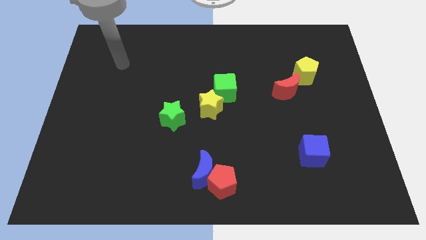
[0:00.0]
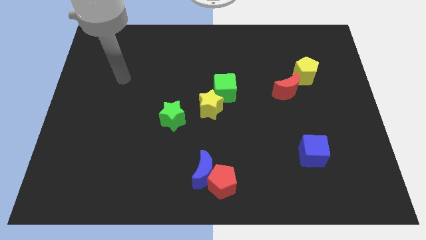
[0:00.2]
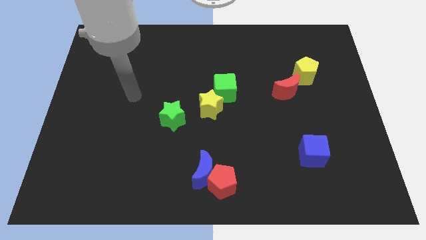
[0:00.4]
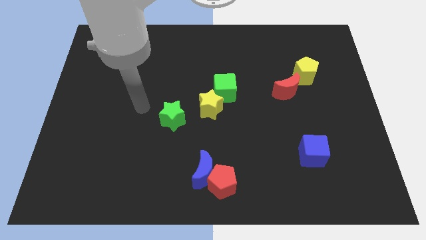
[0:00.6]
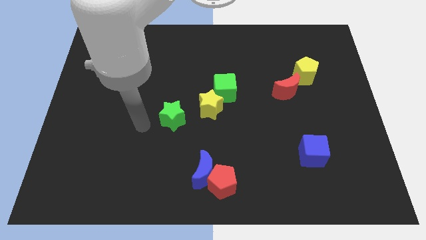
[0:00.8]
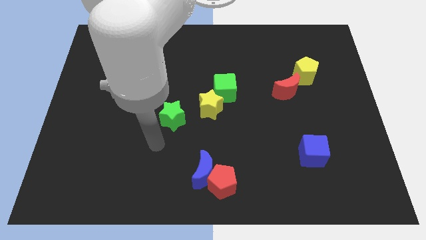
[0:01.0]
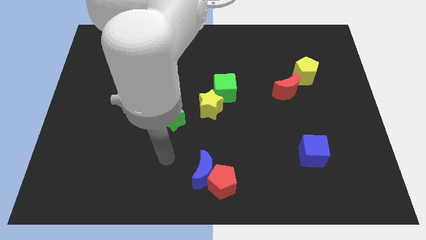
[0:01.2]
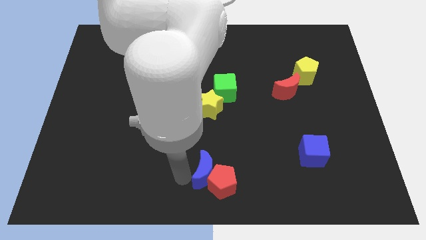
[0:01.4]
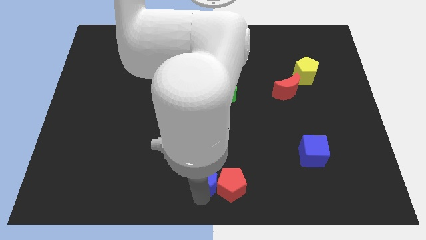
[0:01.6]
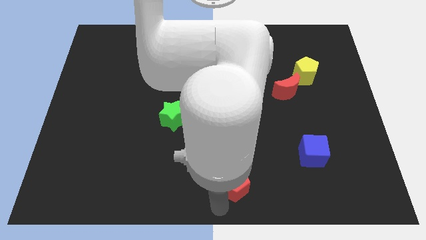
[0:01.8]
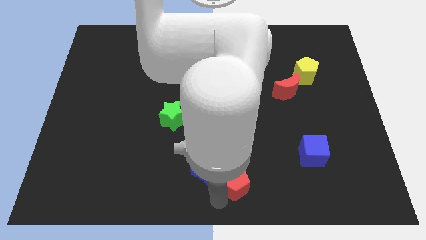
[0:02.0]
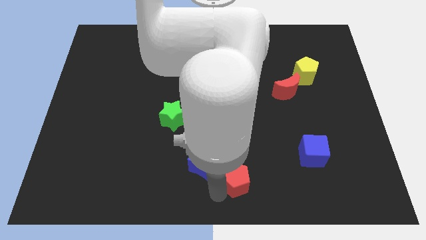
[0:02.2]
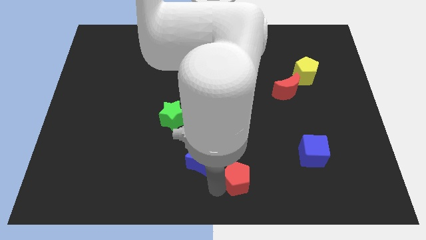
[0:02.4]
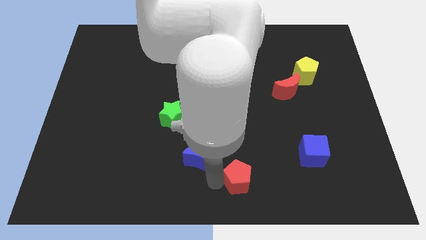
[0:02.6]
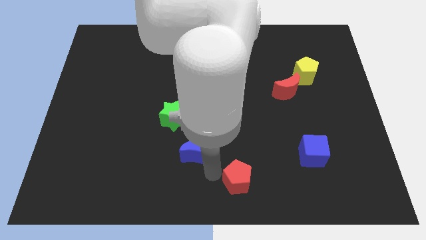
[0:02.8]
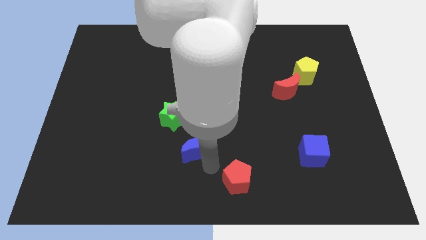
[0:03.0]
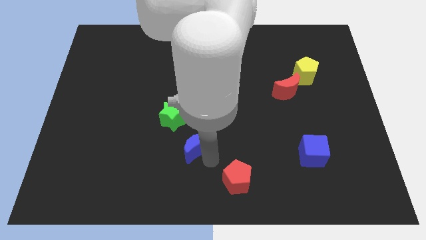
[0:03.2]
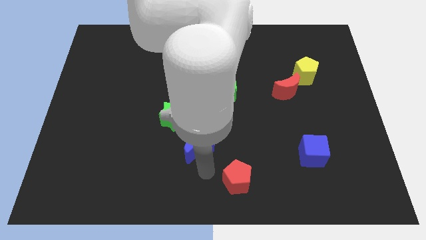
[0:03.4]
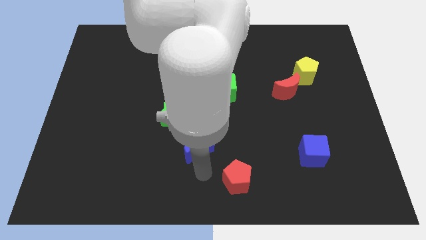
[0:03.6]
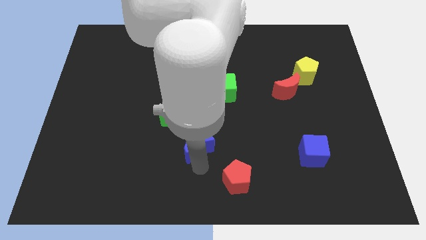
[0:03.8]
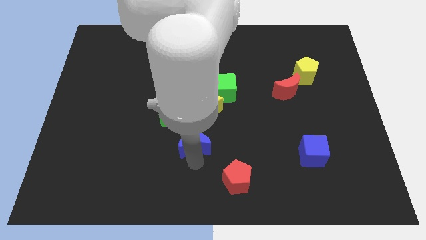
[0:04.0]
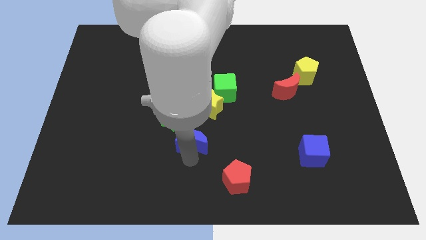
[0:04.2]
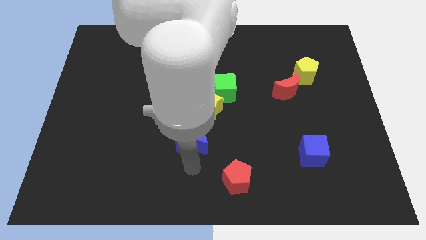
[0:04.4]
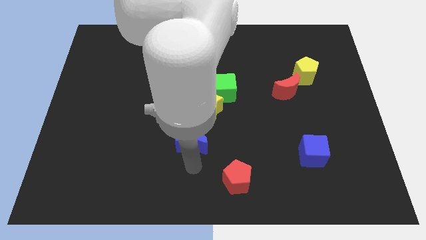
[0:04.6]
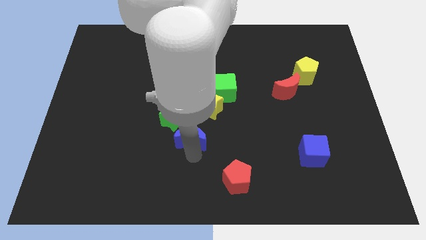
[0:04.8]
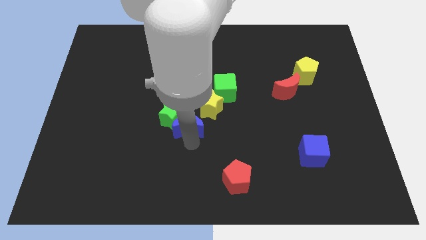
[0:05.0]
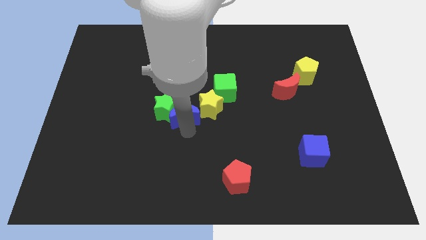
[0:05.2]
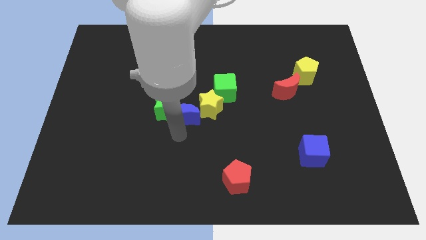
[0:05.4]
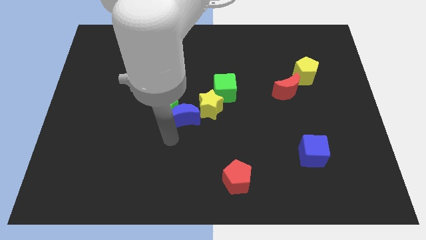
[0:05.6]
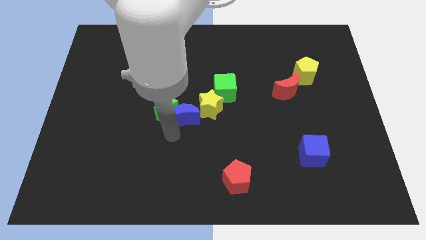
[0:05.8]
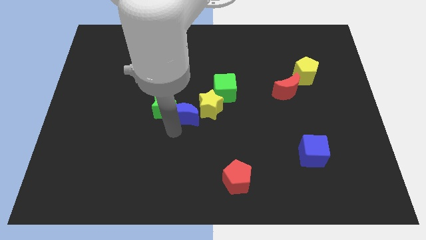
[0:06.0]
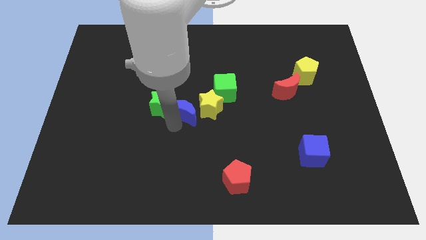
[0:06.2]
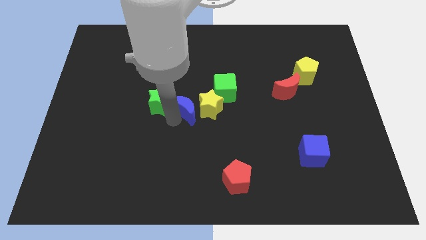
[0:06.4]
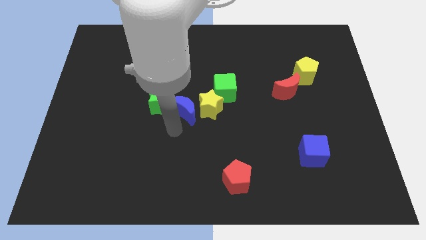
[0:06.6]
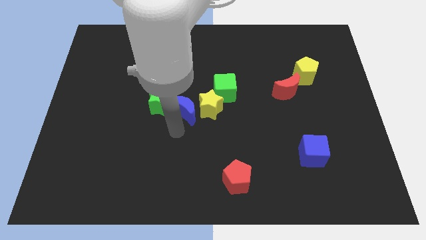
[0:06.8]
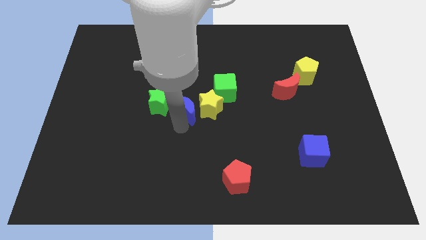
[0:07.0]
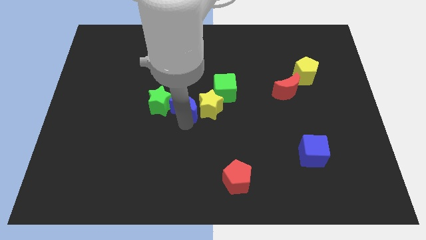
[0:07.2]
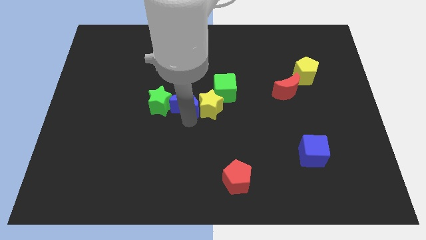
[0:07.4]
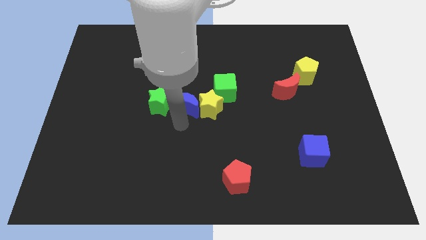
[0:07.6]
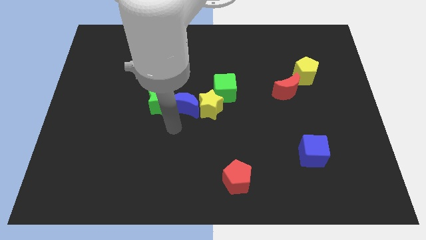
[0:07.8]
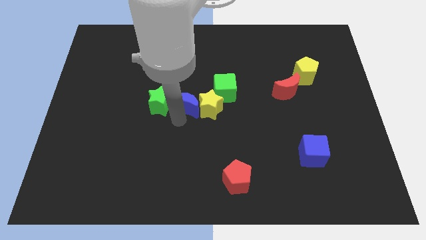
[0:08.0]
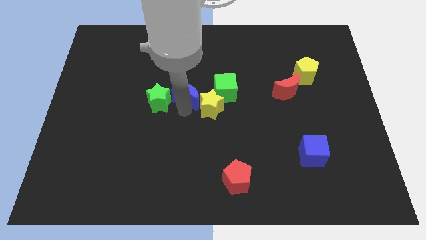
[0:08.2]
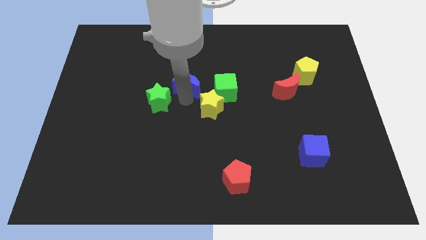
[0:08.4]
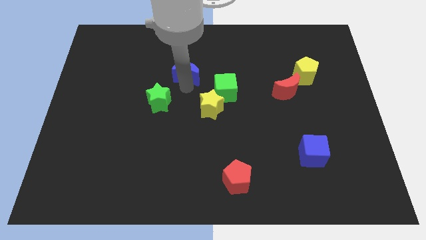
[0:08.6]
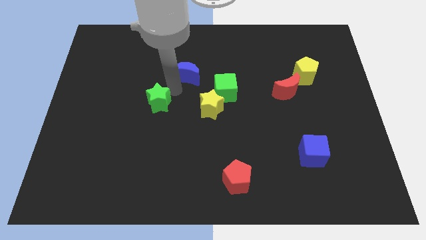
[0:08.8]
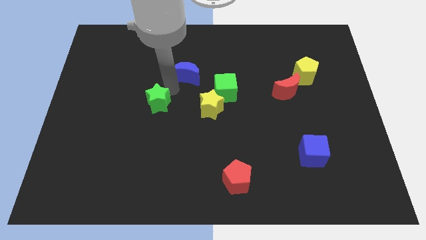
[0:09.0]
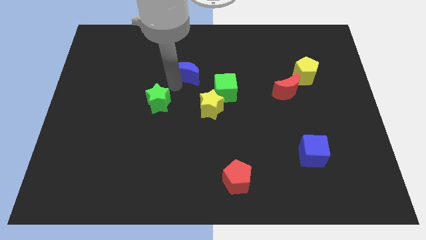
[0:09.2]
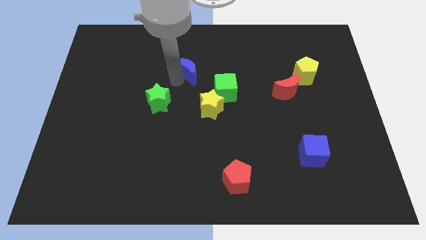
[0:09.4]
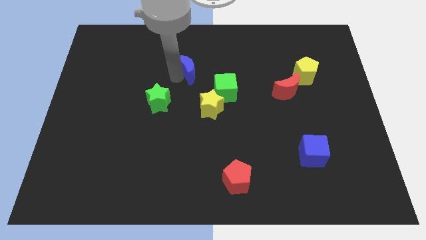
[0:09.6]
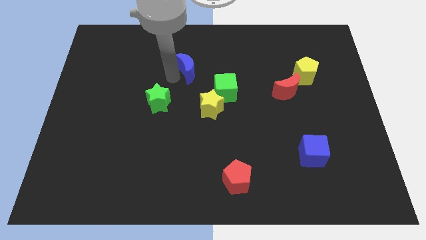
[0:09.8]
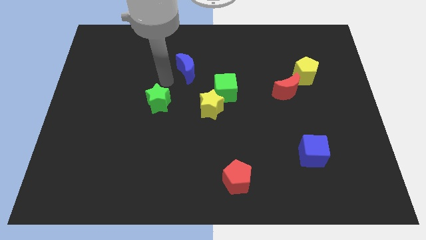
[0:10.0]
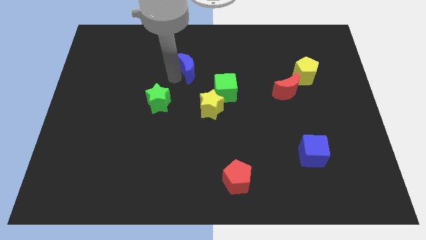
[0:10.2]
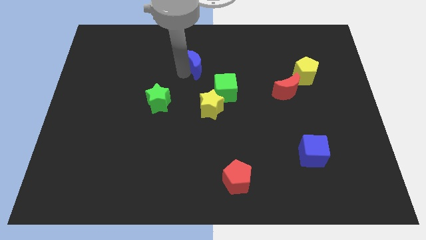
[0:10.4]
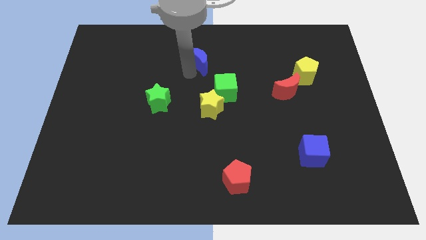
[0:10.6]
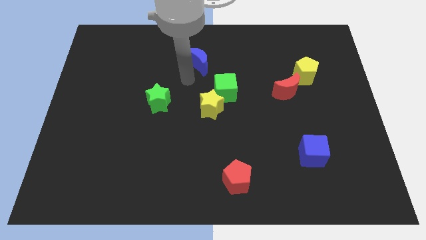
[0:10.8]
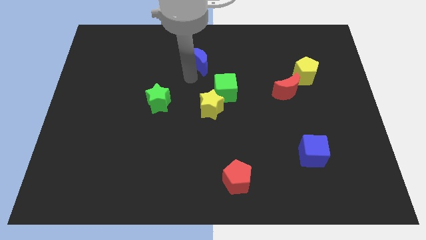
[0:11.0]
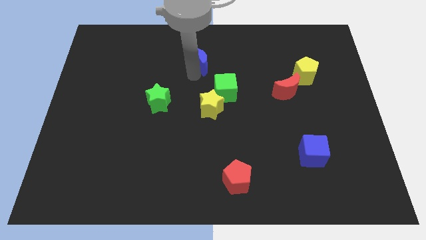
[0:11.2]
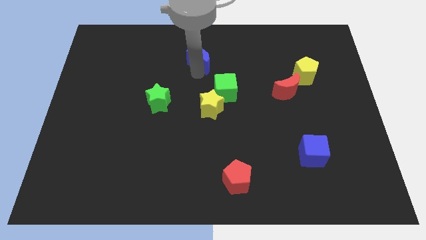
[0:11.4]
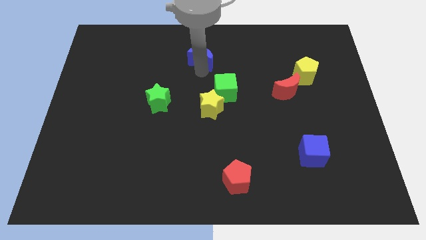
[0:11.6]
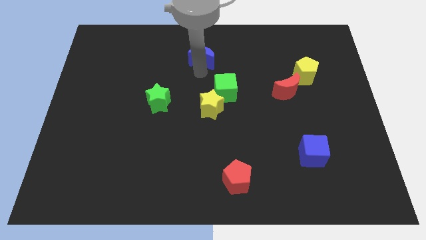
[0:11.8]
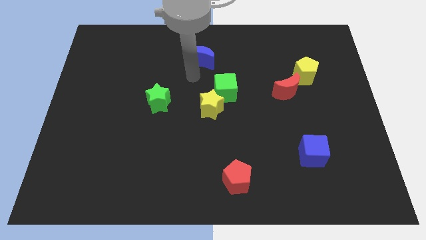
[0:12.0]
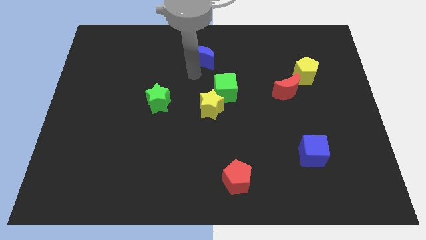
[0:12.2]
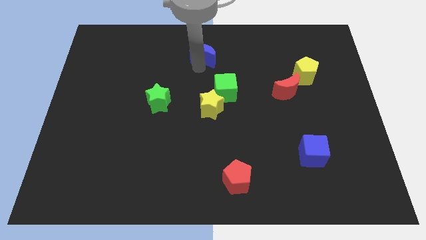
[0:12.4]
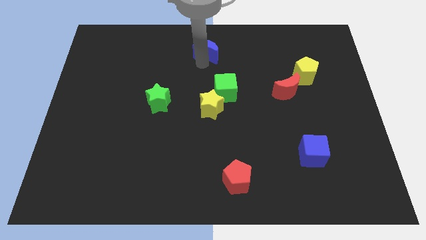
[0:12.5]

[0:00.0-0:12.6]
push the blue moon to the top
